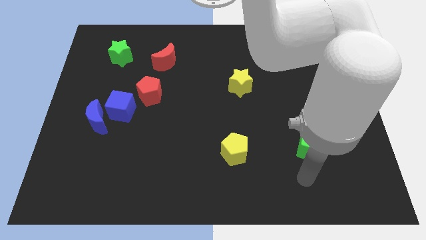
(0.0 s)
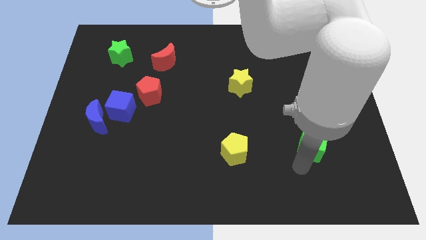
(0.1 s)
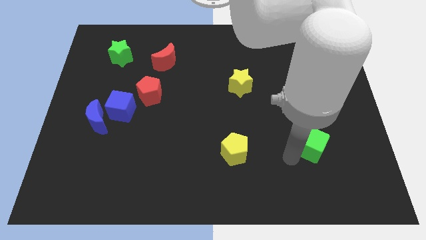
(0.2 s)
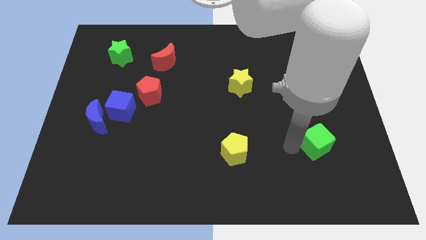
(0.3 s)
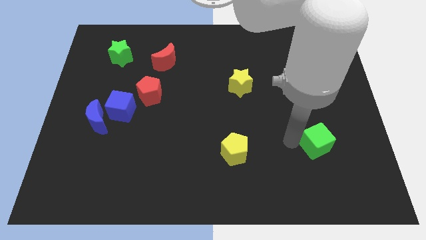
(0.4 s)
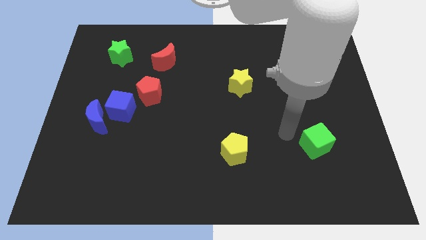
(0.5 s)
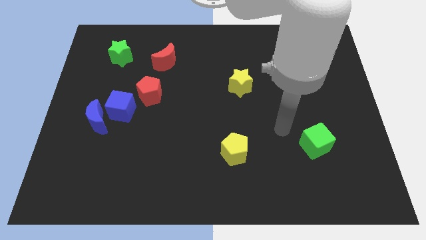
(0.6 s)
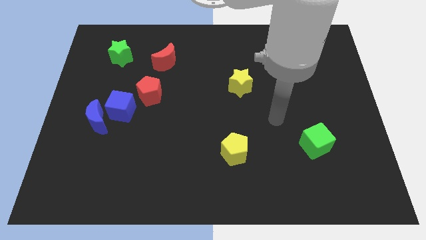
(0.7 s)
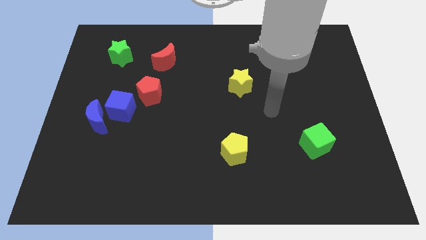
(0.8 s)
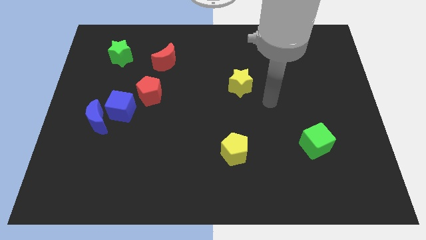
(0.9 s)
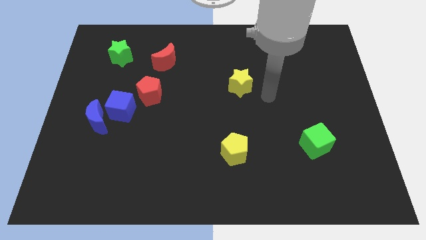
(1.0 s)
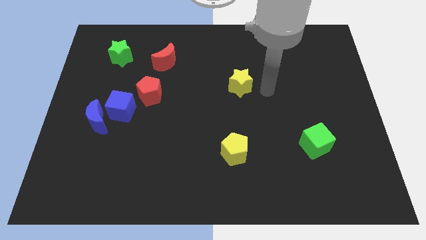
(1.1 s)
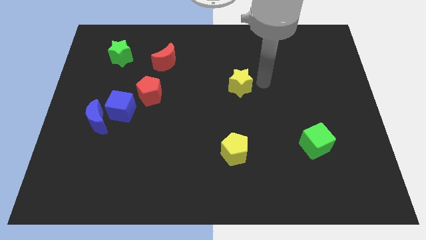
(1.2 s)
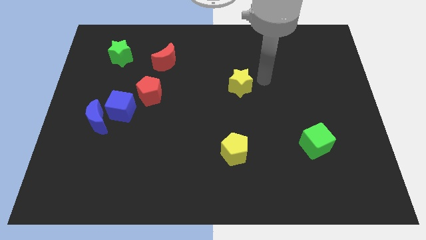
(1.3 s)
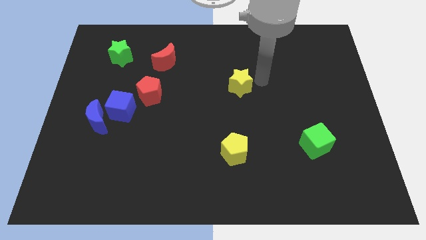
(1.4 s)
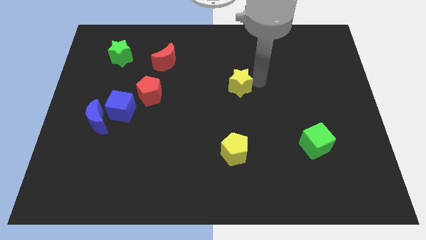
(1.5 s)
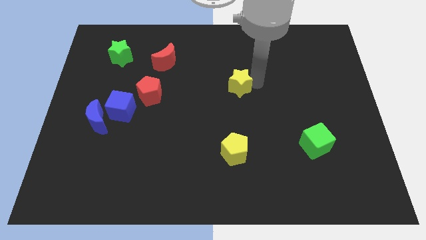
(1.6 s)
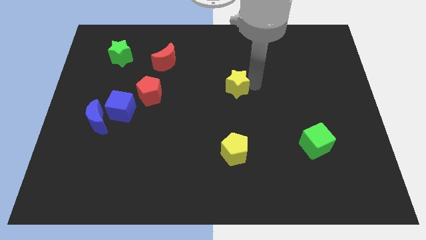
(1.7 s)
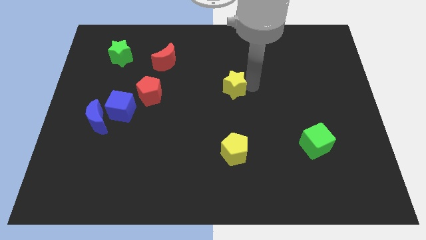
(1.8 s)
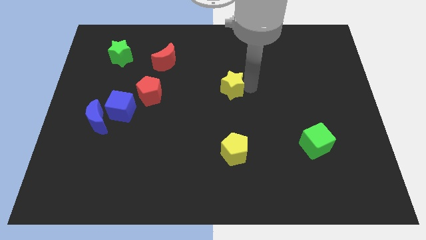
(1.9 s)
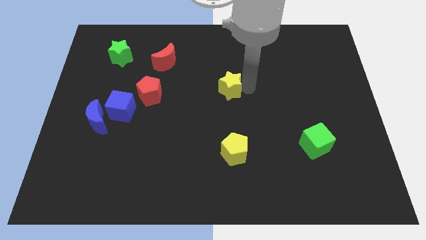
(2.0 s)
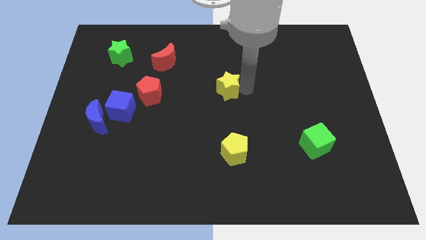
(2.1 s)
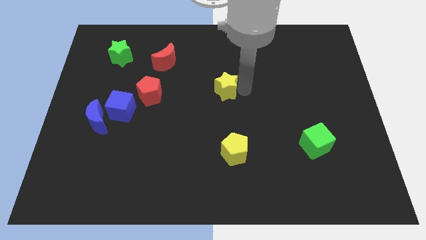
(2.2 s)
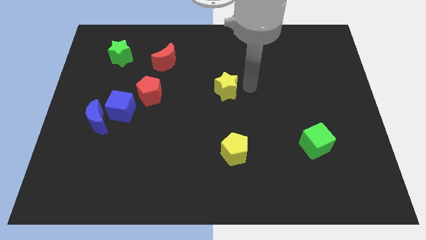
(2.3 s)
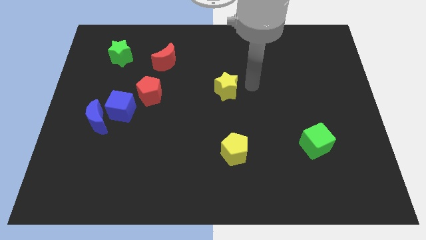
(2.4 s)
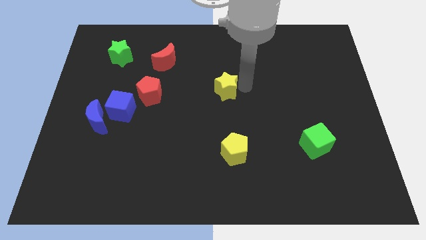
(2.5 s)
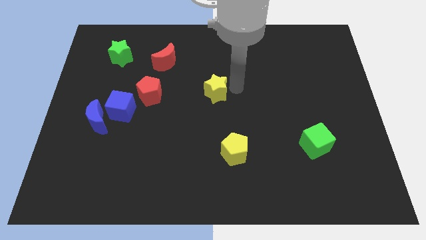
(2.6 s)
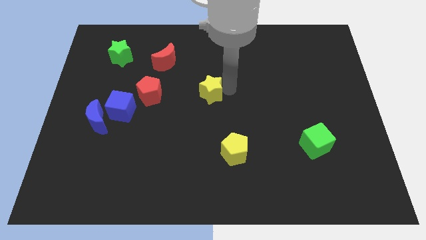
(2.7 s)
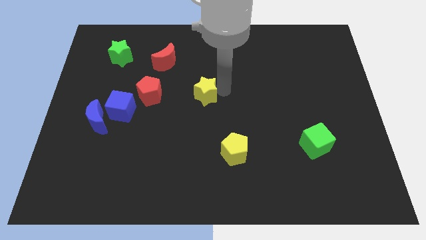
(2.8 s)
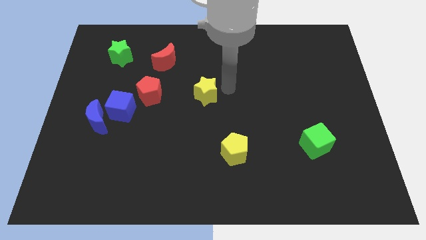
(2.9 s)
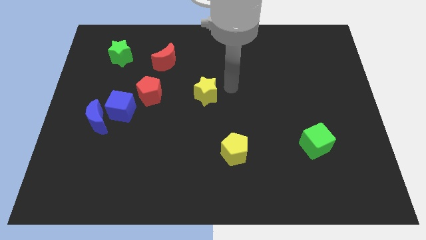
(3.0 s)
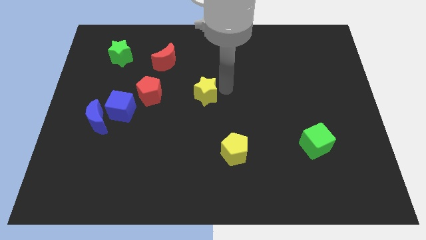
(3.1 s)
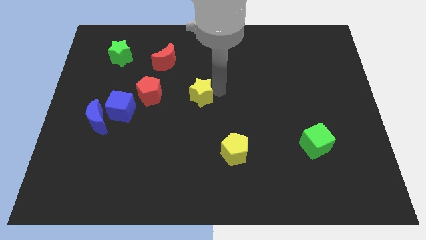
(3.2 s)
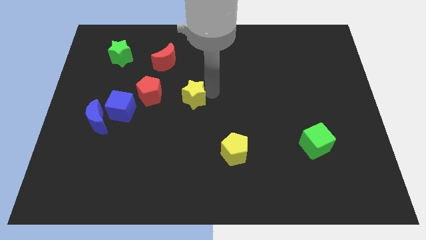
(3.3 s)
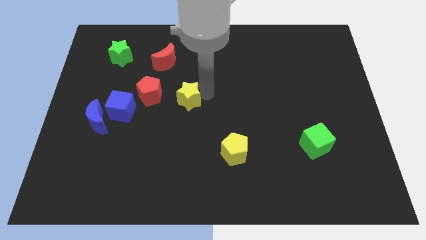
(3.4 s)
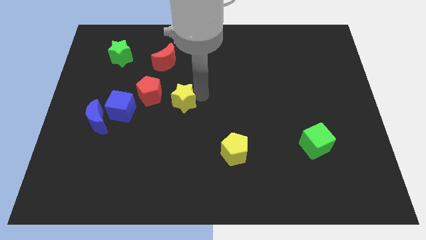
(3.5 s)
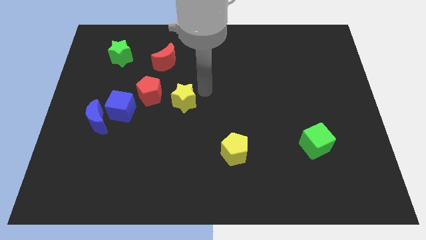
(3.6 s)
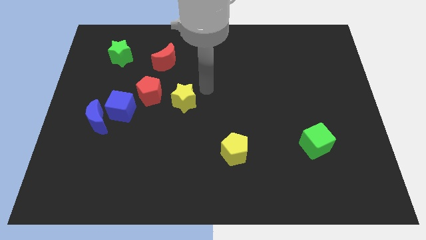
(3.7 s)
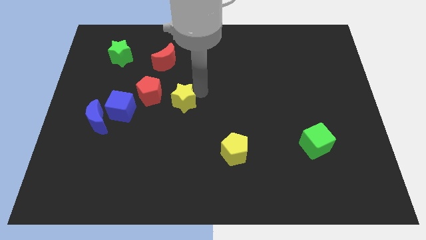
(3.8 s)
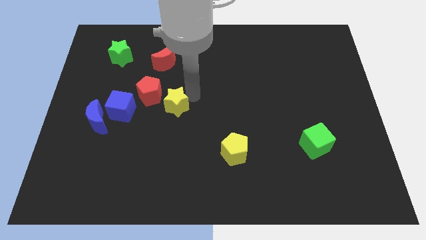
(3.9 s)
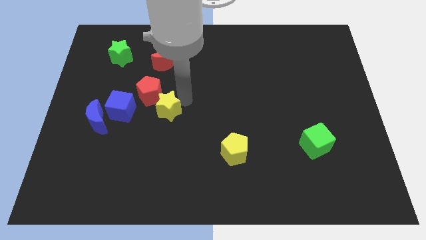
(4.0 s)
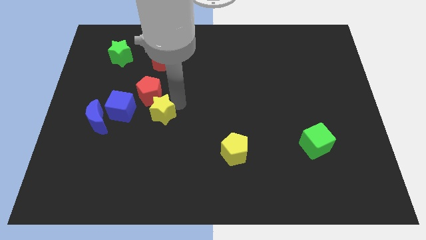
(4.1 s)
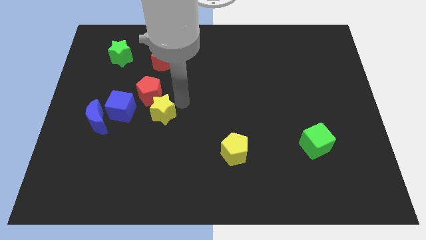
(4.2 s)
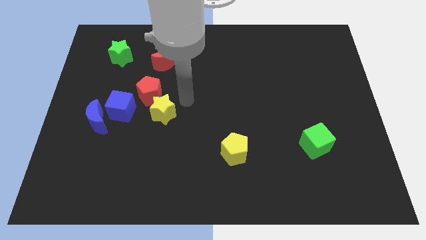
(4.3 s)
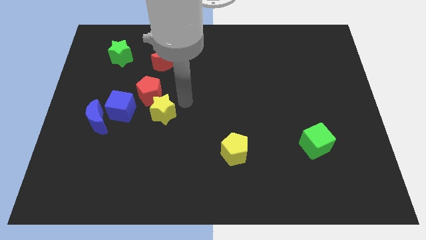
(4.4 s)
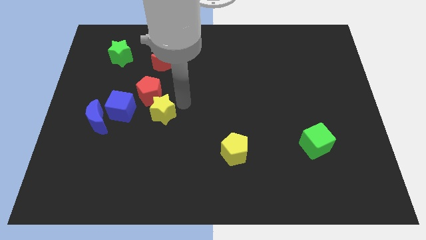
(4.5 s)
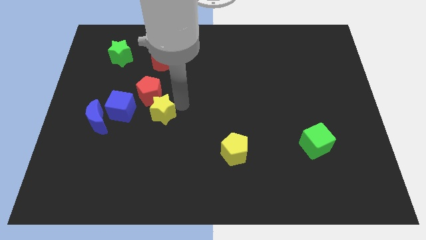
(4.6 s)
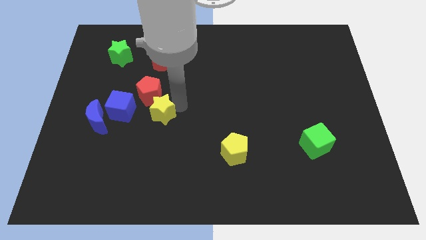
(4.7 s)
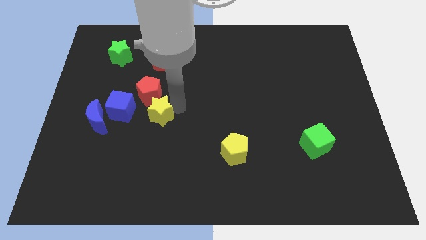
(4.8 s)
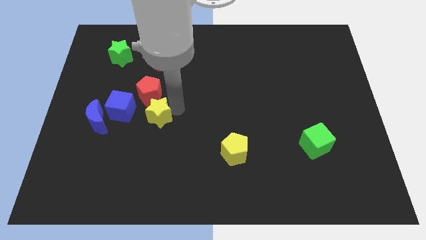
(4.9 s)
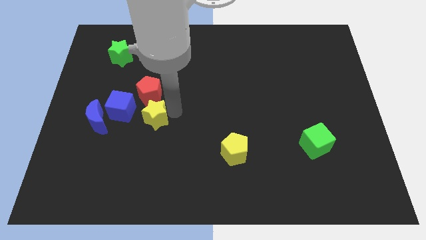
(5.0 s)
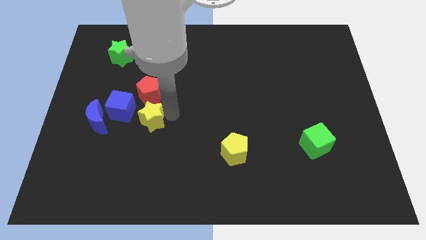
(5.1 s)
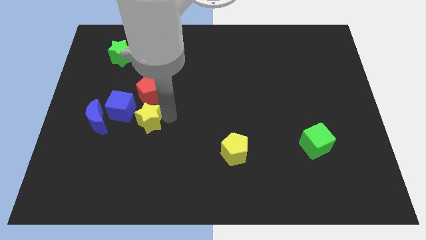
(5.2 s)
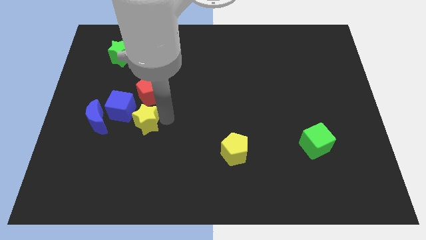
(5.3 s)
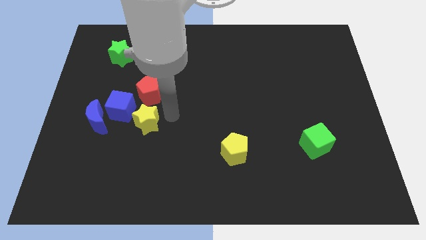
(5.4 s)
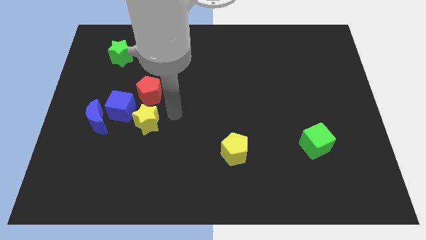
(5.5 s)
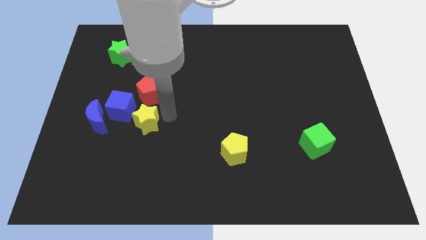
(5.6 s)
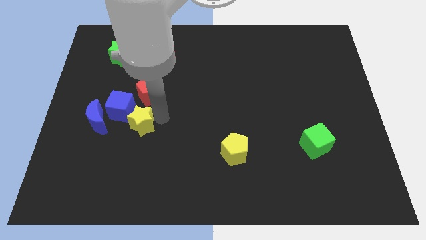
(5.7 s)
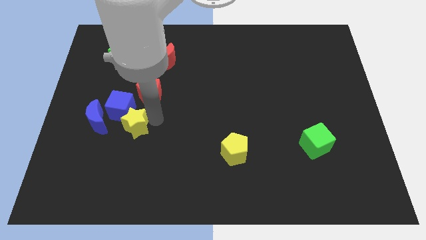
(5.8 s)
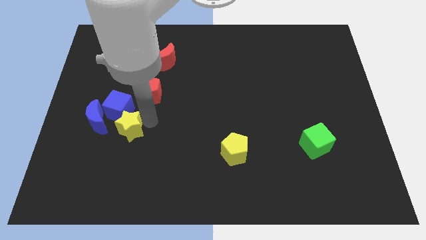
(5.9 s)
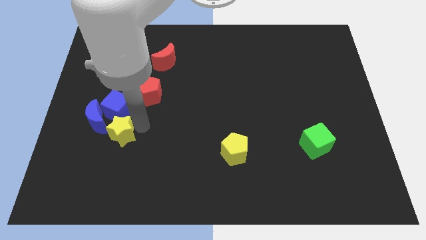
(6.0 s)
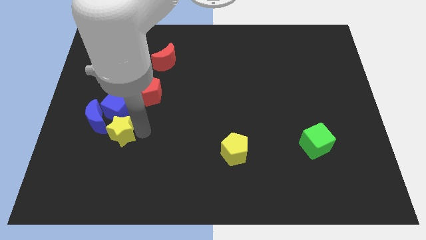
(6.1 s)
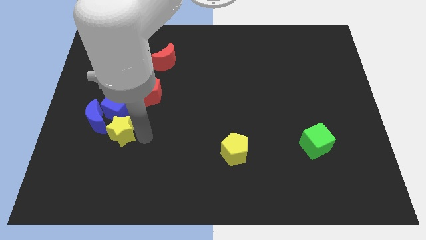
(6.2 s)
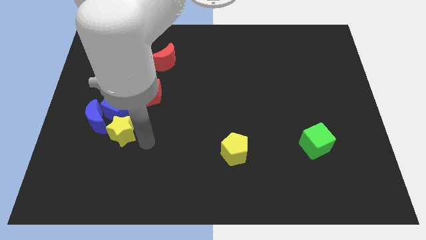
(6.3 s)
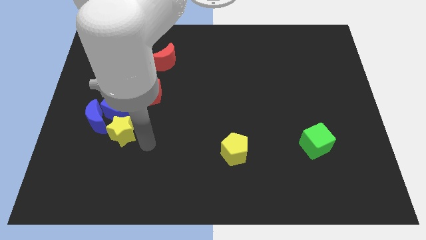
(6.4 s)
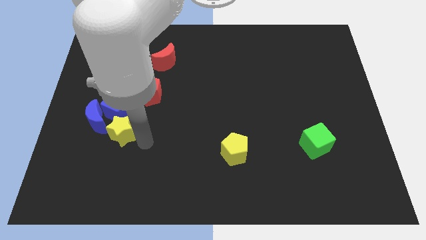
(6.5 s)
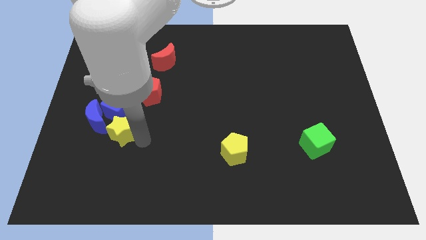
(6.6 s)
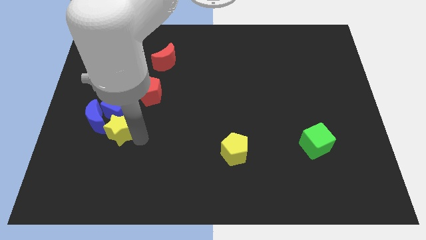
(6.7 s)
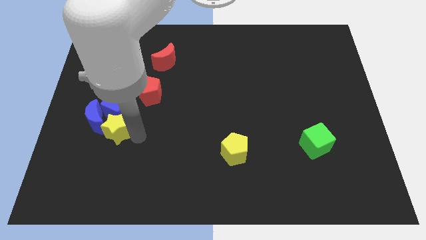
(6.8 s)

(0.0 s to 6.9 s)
put the yellow star next to the blue moon
